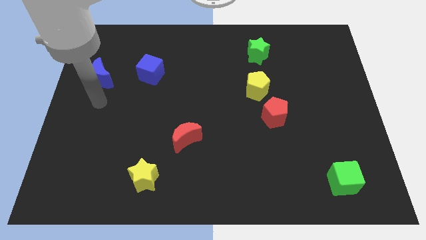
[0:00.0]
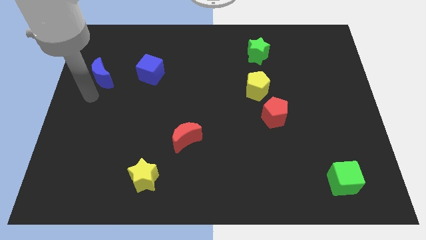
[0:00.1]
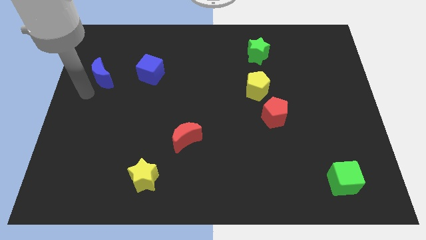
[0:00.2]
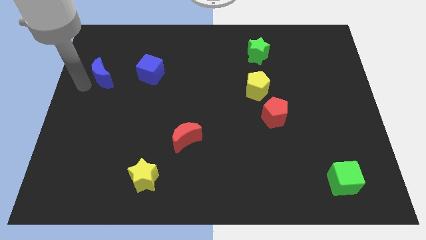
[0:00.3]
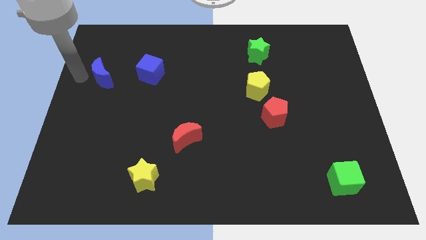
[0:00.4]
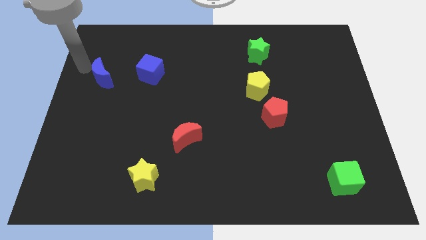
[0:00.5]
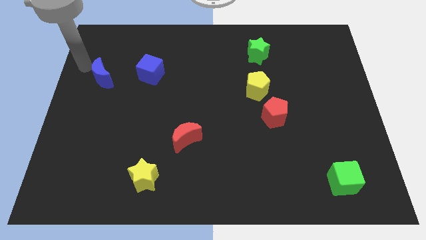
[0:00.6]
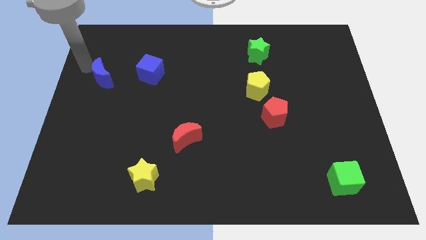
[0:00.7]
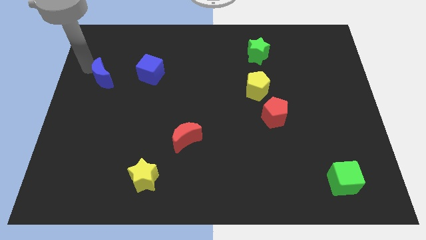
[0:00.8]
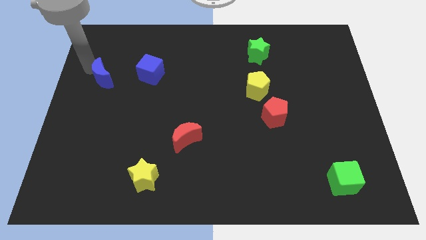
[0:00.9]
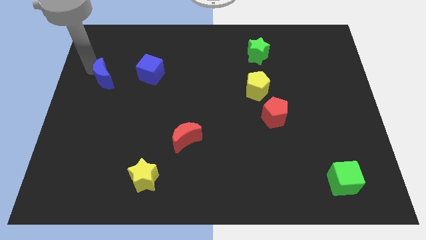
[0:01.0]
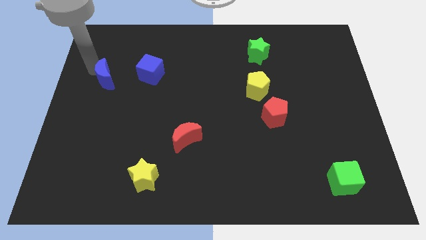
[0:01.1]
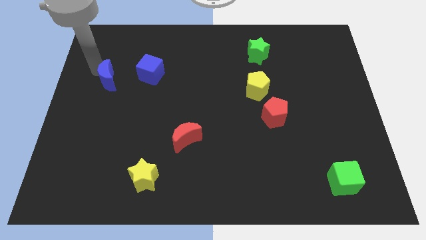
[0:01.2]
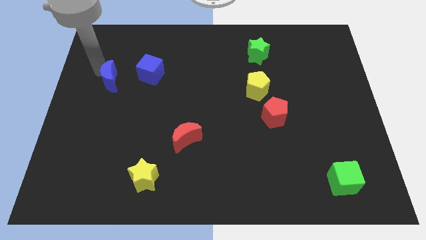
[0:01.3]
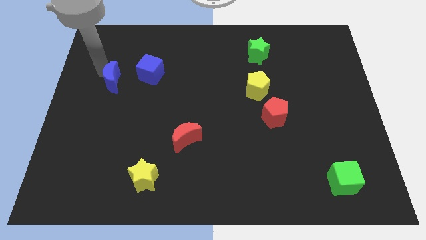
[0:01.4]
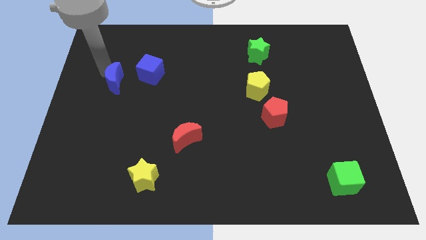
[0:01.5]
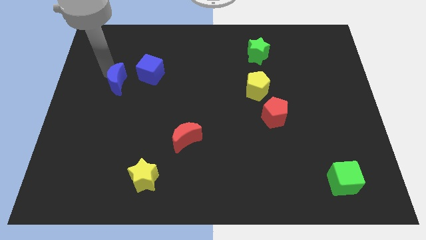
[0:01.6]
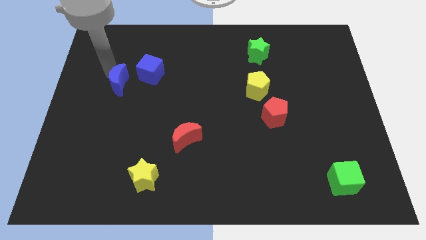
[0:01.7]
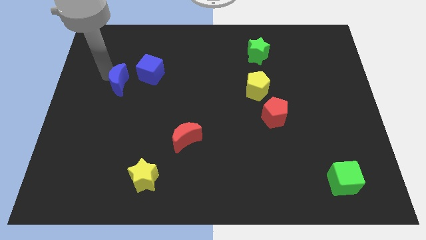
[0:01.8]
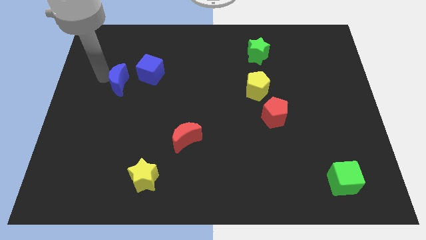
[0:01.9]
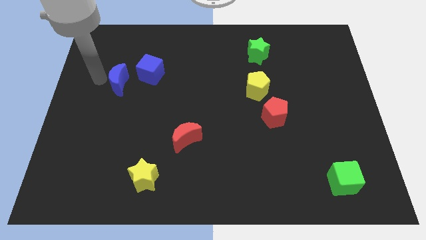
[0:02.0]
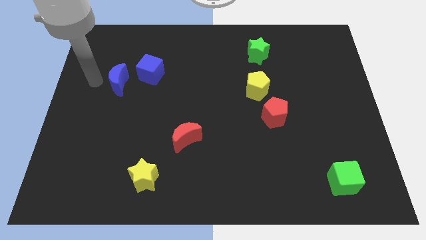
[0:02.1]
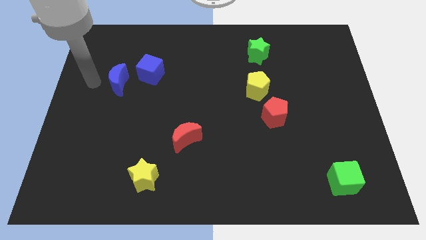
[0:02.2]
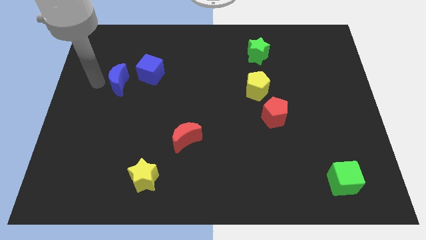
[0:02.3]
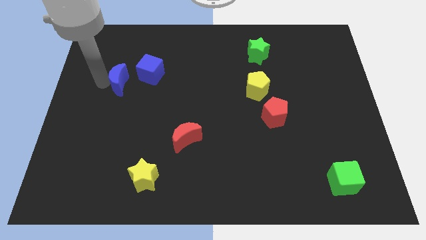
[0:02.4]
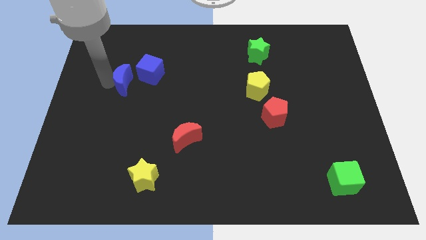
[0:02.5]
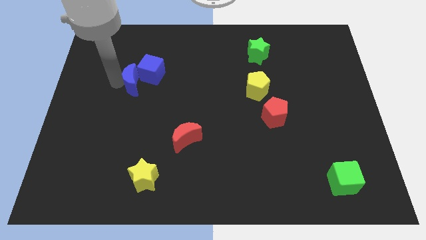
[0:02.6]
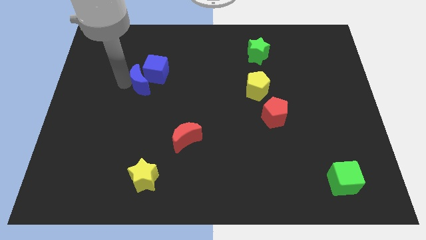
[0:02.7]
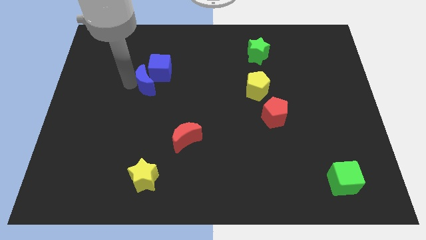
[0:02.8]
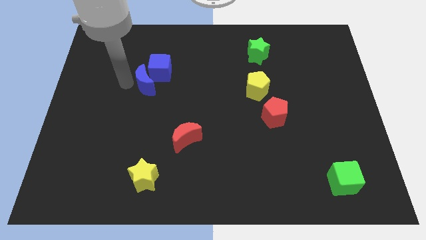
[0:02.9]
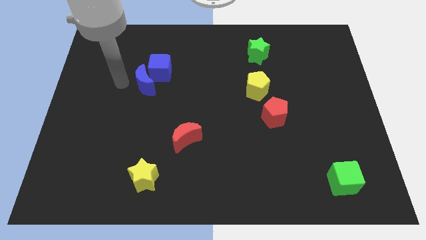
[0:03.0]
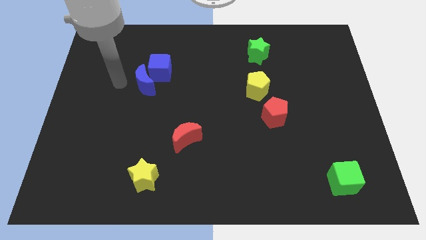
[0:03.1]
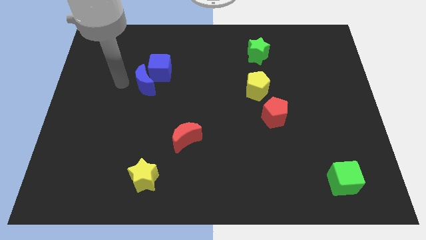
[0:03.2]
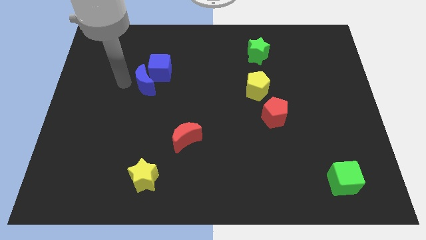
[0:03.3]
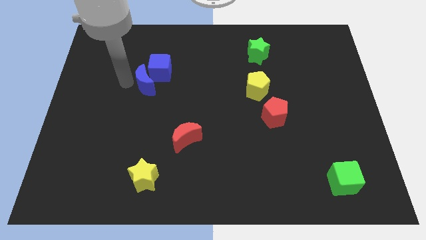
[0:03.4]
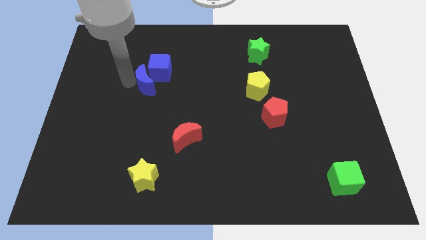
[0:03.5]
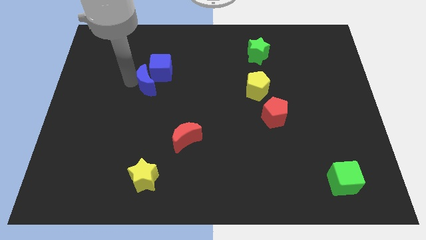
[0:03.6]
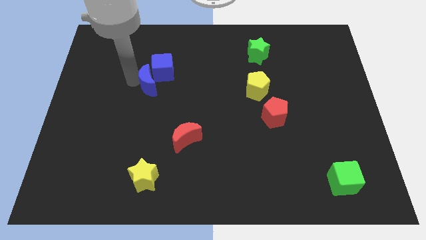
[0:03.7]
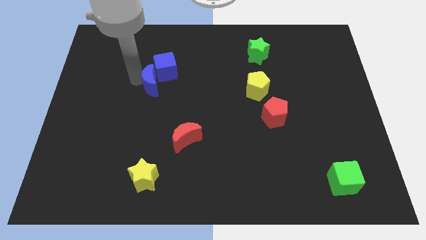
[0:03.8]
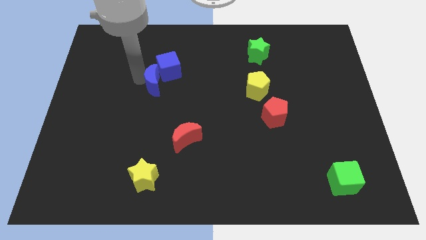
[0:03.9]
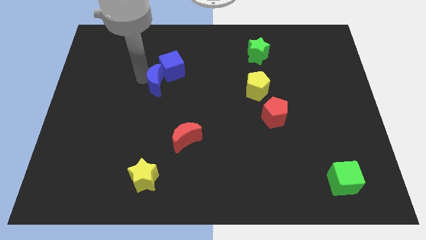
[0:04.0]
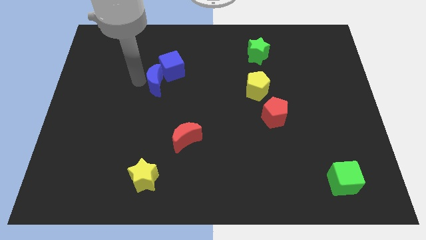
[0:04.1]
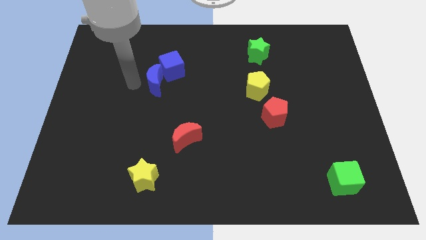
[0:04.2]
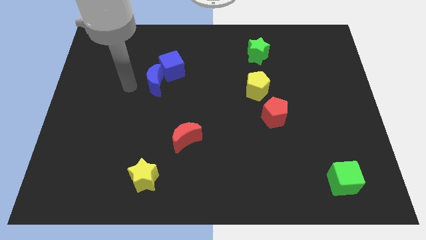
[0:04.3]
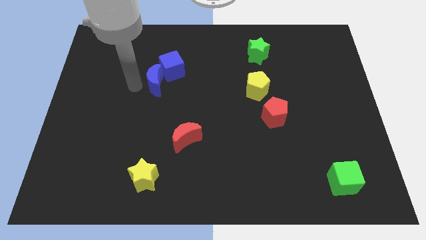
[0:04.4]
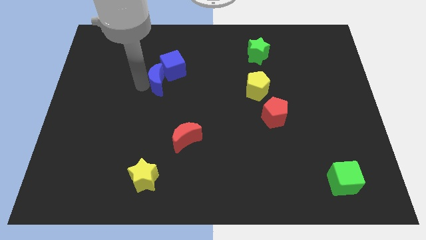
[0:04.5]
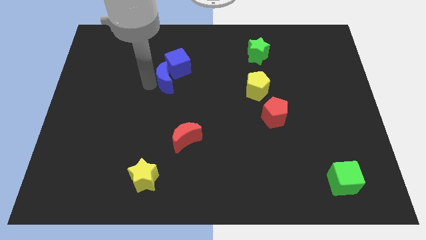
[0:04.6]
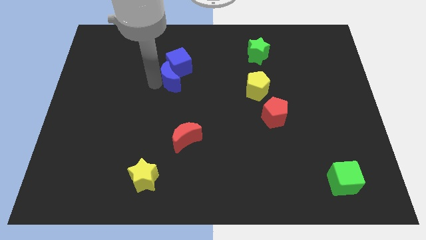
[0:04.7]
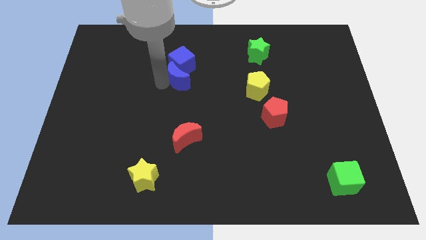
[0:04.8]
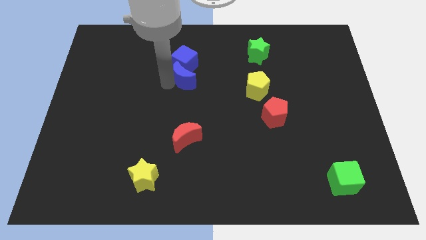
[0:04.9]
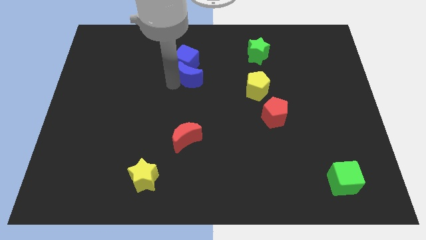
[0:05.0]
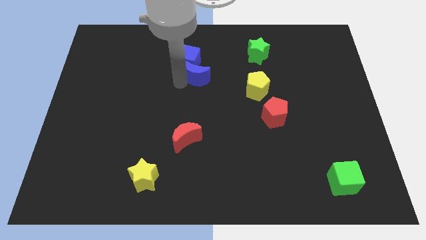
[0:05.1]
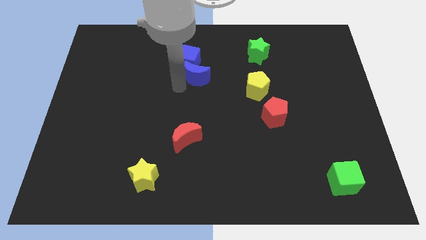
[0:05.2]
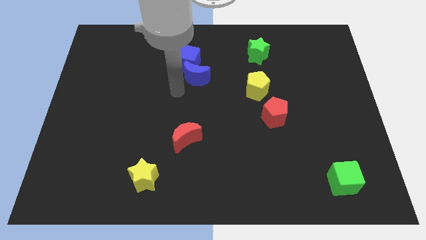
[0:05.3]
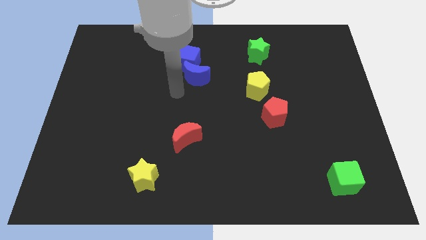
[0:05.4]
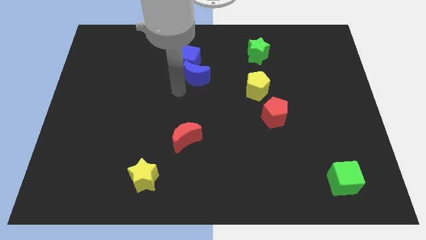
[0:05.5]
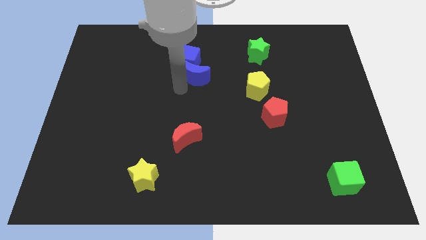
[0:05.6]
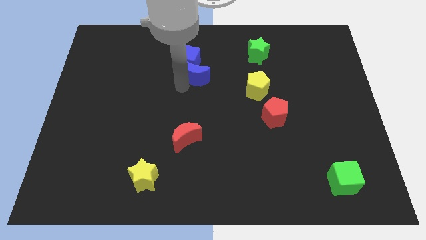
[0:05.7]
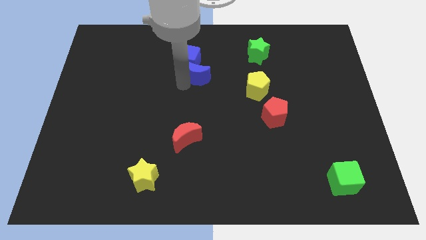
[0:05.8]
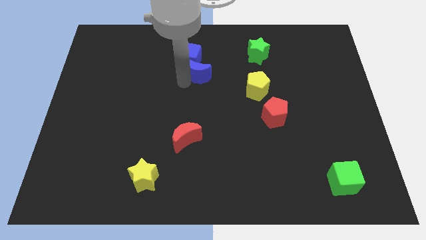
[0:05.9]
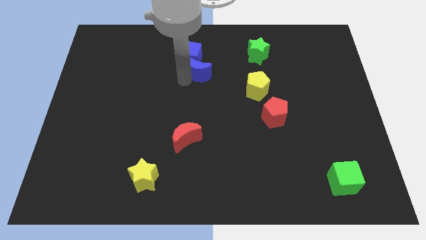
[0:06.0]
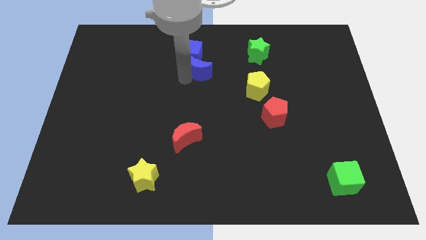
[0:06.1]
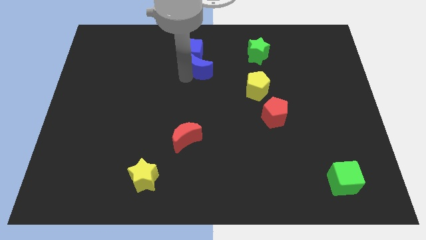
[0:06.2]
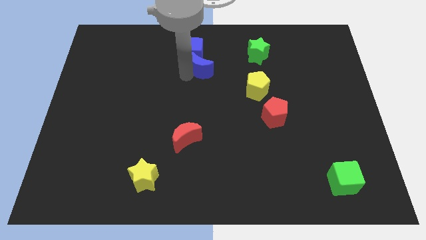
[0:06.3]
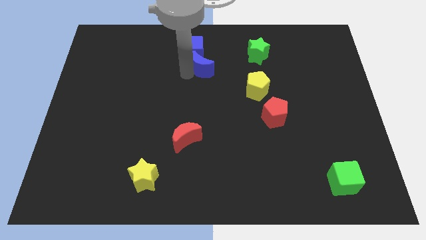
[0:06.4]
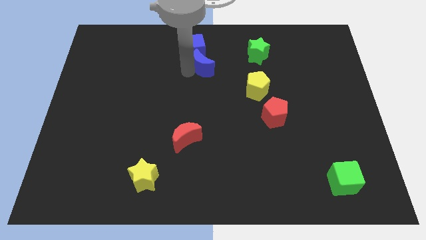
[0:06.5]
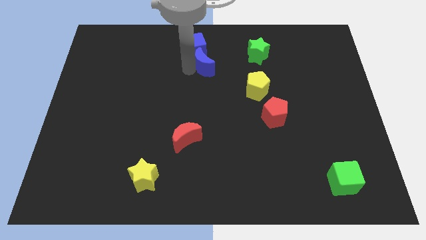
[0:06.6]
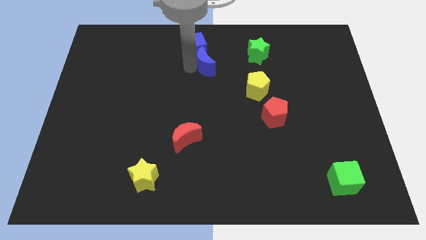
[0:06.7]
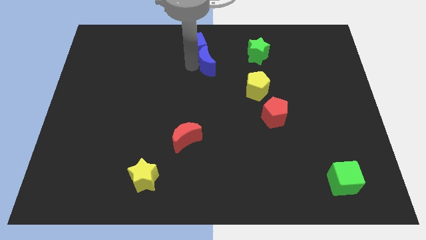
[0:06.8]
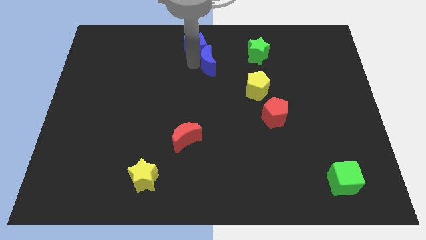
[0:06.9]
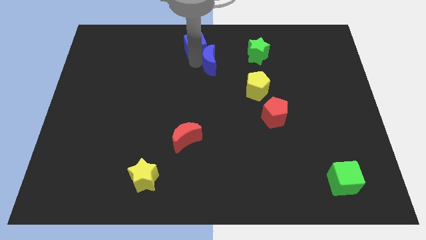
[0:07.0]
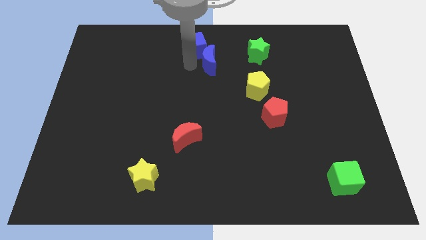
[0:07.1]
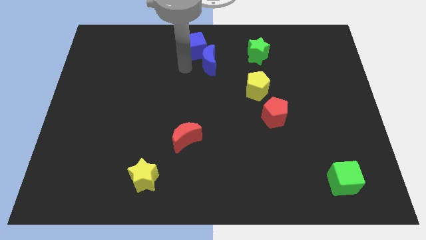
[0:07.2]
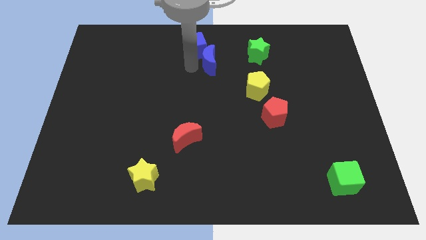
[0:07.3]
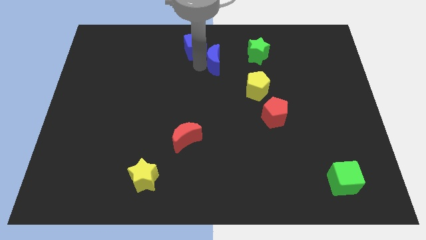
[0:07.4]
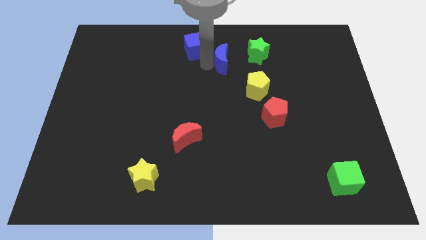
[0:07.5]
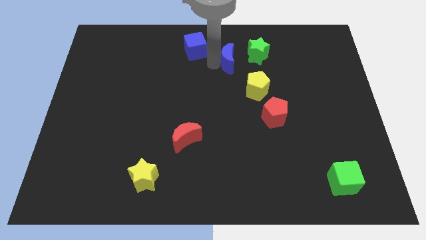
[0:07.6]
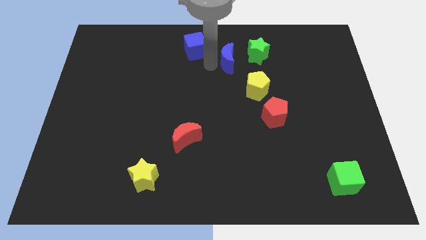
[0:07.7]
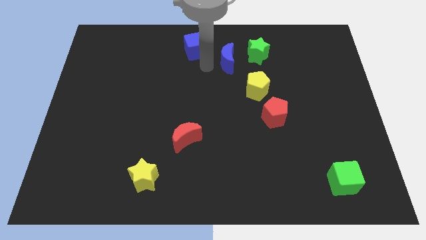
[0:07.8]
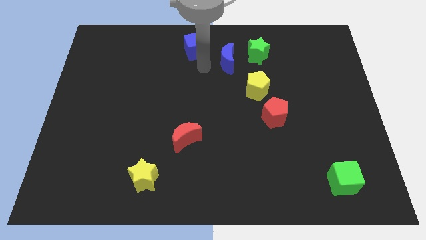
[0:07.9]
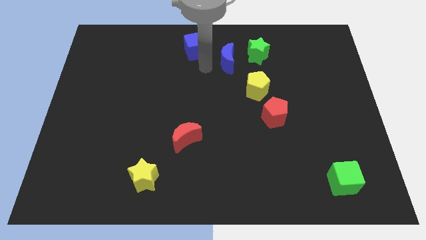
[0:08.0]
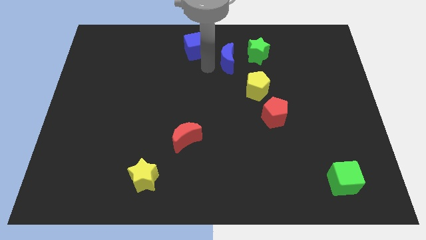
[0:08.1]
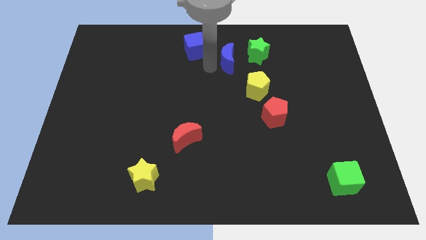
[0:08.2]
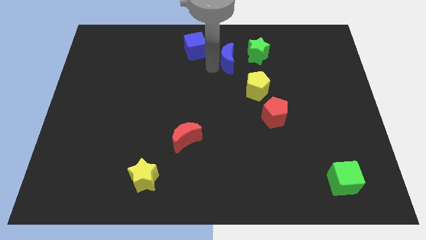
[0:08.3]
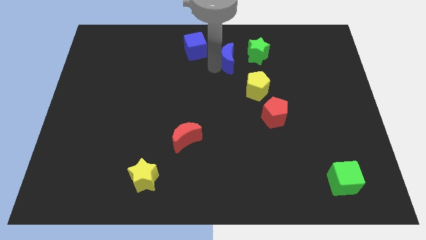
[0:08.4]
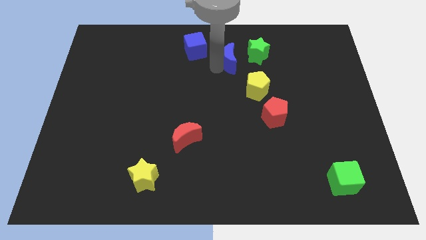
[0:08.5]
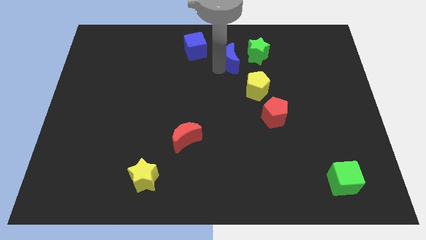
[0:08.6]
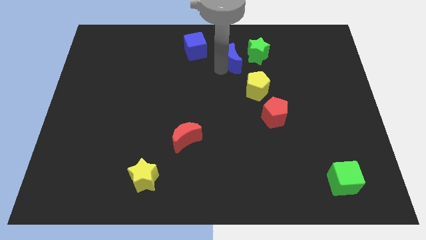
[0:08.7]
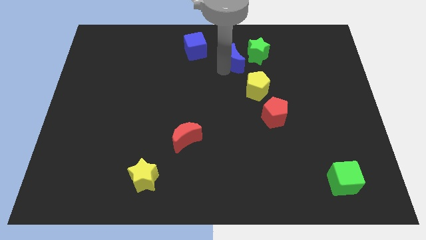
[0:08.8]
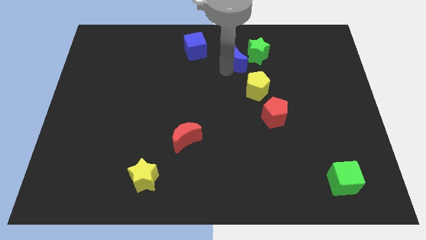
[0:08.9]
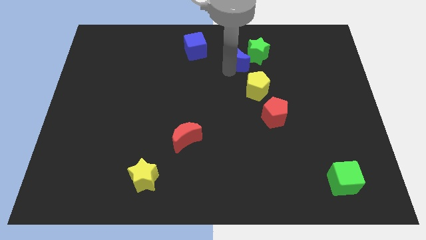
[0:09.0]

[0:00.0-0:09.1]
put the blue moon to the green star
